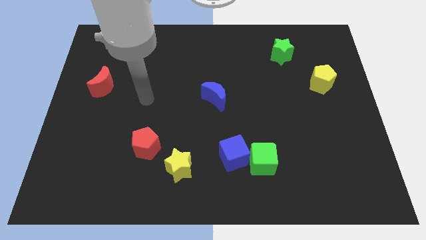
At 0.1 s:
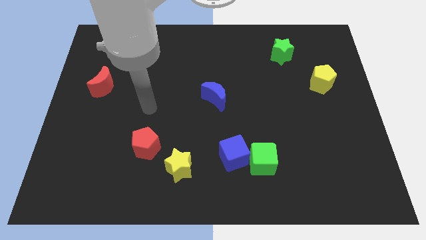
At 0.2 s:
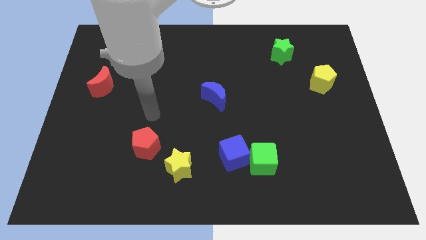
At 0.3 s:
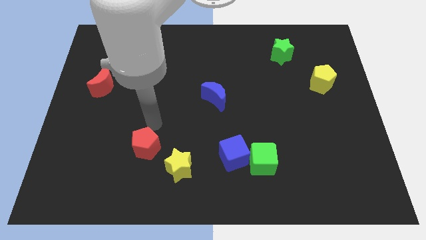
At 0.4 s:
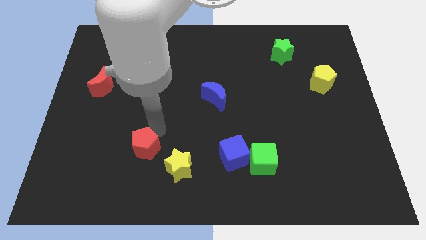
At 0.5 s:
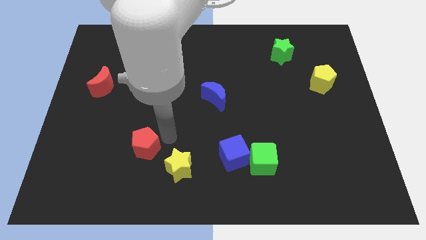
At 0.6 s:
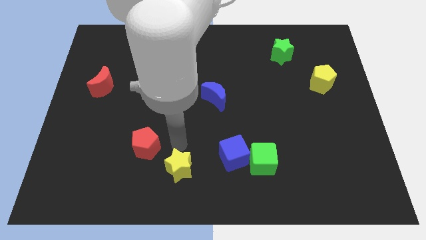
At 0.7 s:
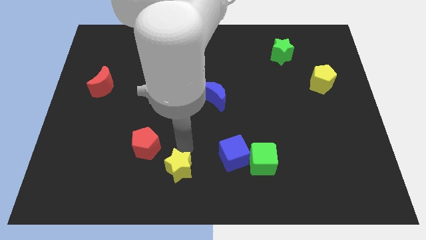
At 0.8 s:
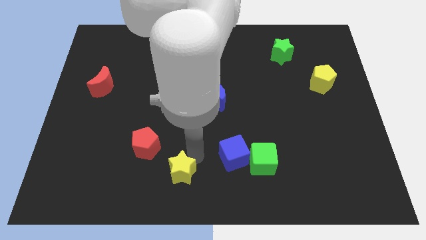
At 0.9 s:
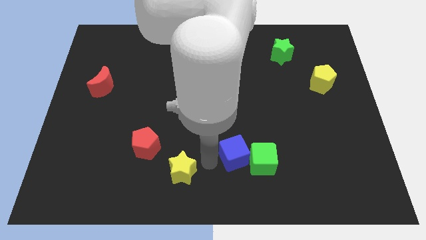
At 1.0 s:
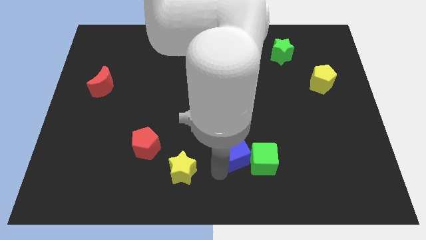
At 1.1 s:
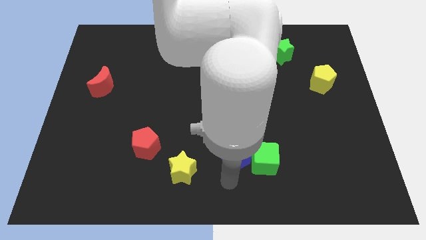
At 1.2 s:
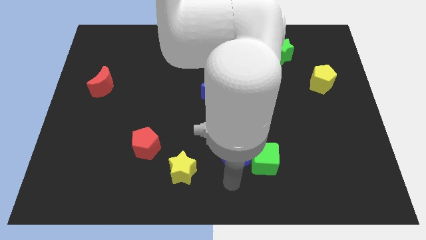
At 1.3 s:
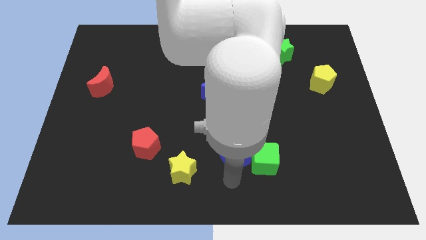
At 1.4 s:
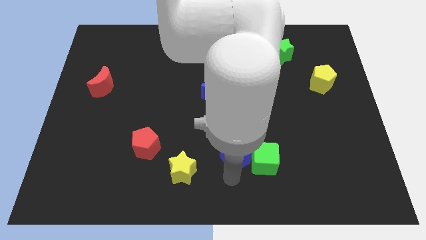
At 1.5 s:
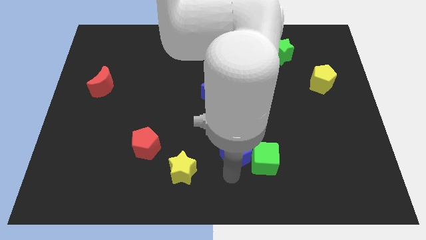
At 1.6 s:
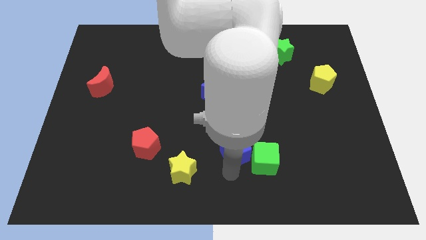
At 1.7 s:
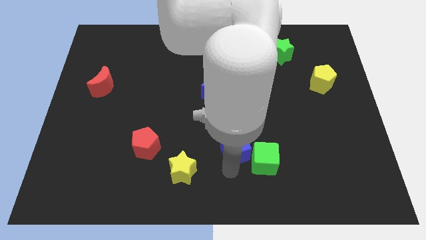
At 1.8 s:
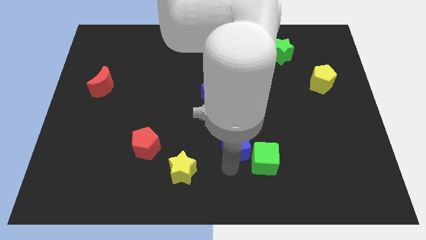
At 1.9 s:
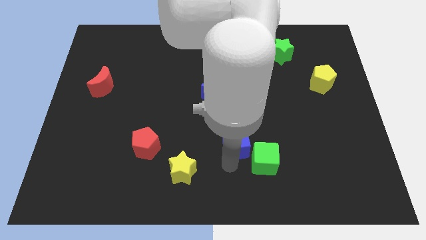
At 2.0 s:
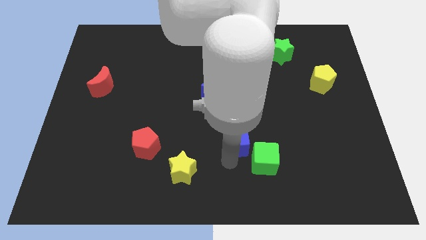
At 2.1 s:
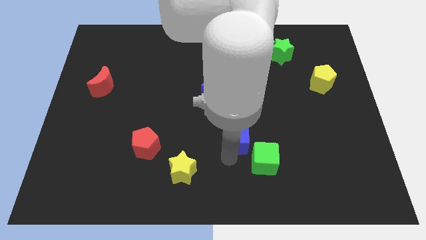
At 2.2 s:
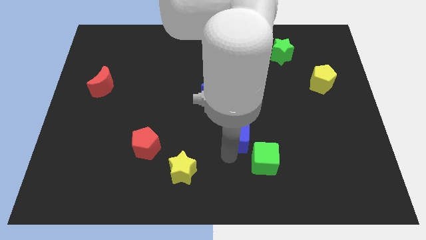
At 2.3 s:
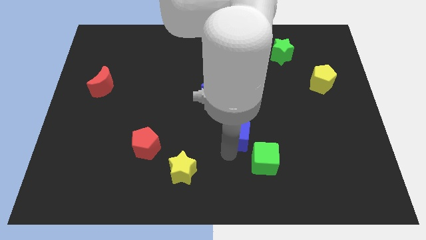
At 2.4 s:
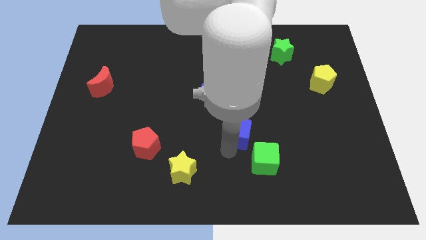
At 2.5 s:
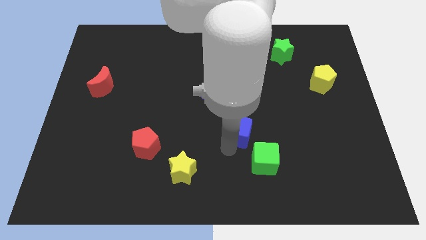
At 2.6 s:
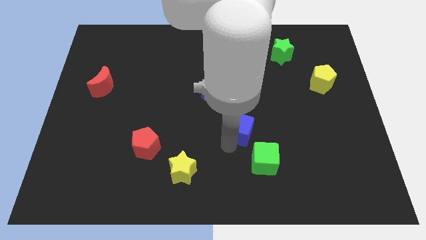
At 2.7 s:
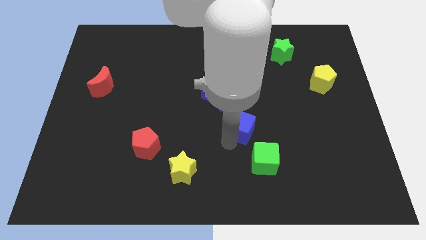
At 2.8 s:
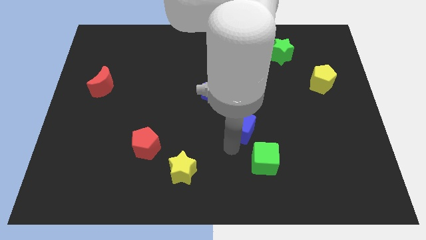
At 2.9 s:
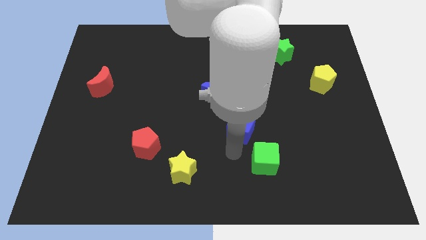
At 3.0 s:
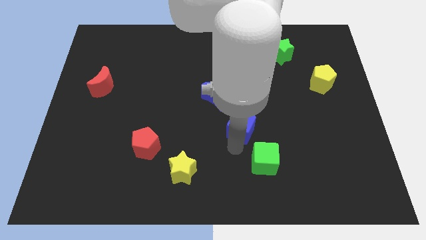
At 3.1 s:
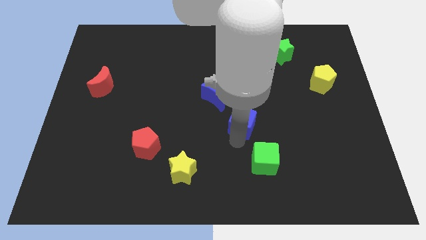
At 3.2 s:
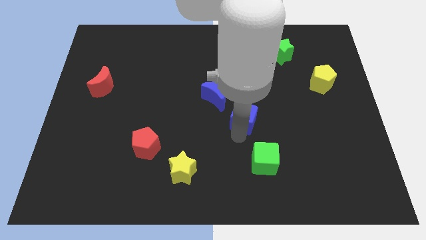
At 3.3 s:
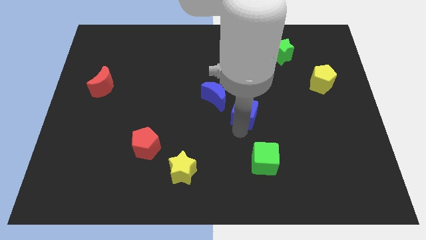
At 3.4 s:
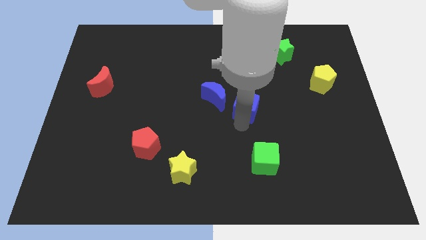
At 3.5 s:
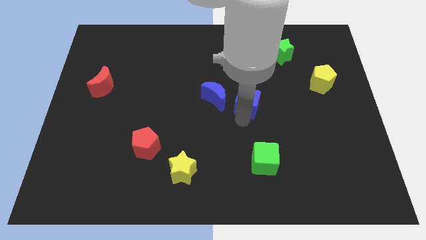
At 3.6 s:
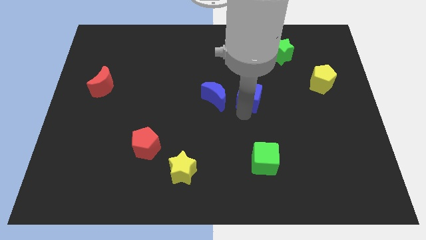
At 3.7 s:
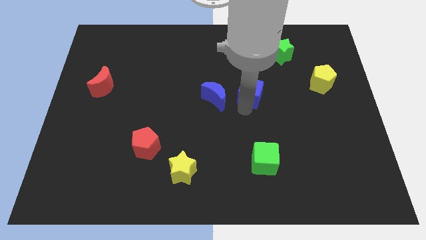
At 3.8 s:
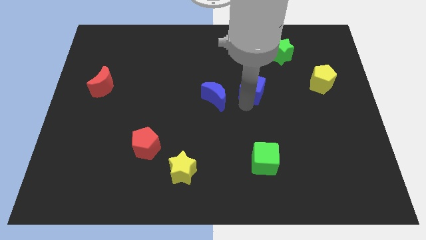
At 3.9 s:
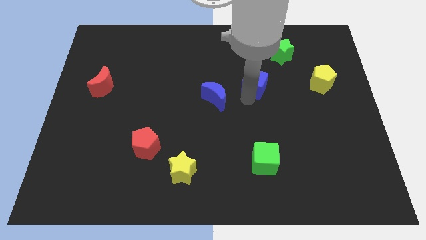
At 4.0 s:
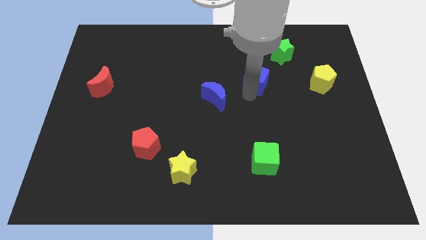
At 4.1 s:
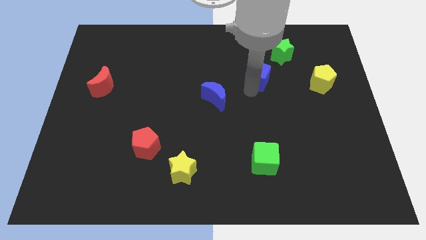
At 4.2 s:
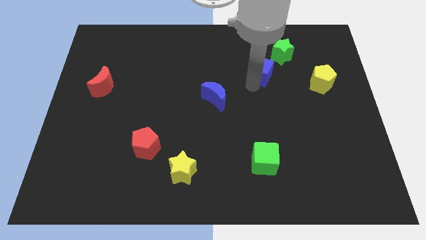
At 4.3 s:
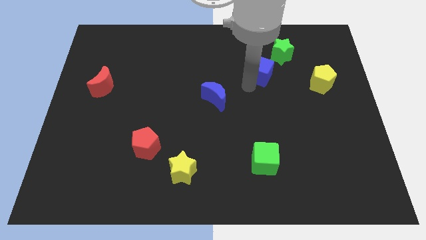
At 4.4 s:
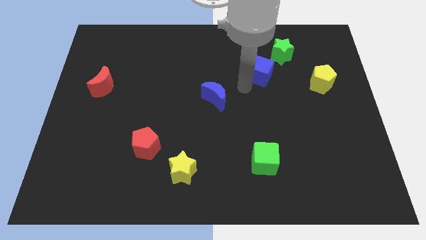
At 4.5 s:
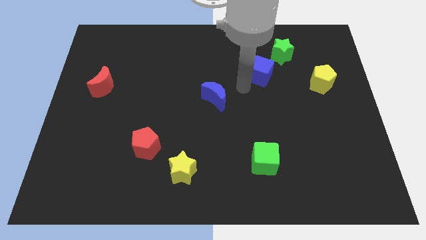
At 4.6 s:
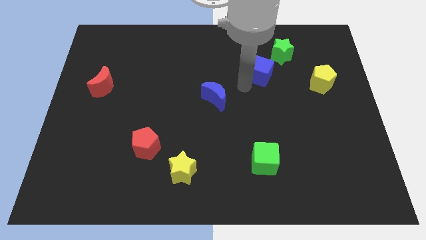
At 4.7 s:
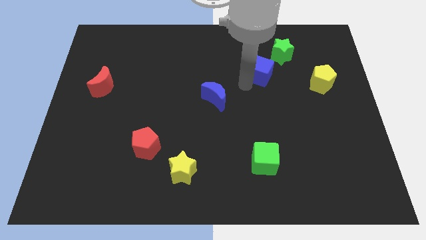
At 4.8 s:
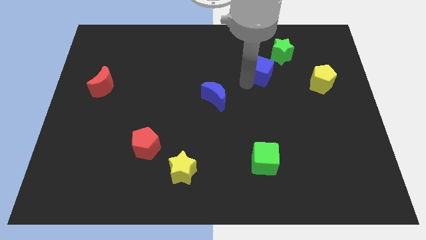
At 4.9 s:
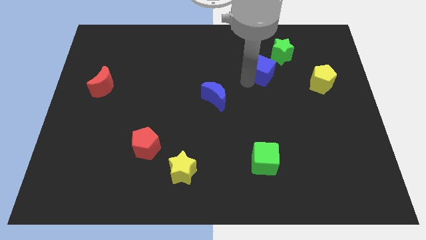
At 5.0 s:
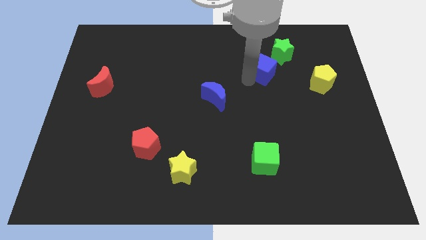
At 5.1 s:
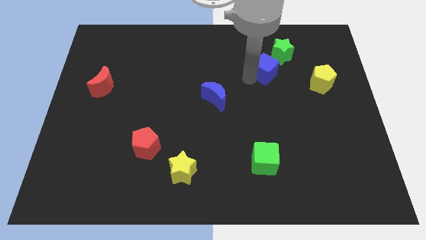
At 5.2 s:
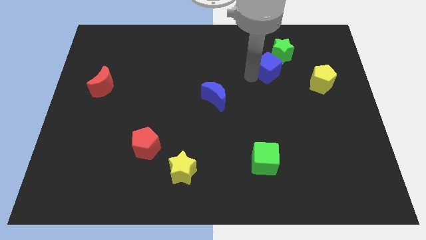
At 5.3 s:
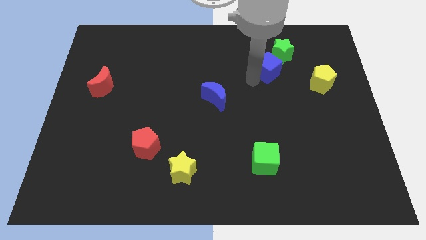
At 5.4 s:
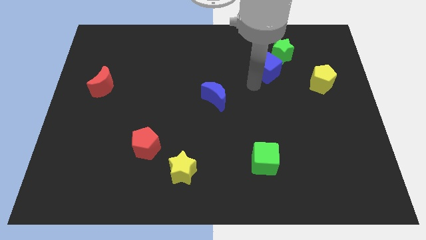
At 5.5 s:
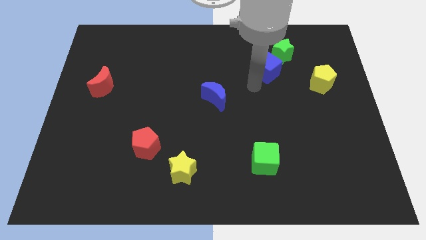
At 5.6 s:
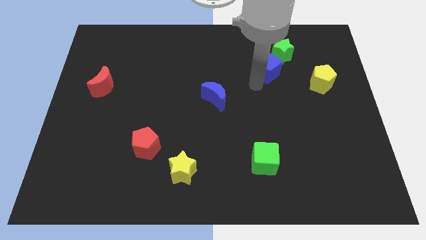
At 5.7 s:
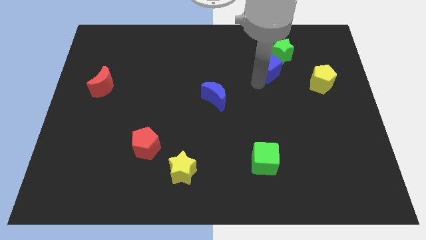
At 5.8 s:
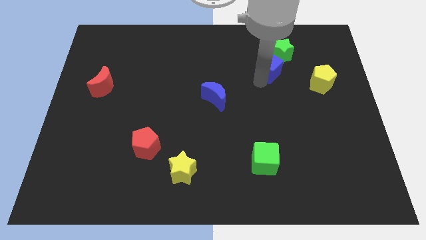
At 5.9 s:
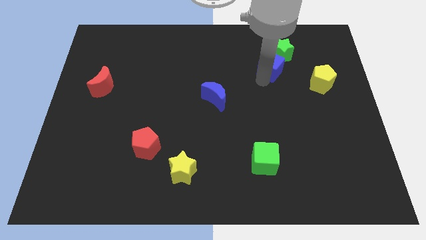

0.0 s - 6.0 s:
move the blue cube to the green star

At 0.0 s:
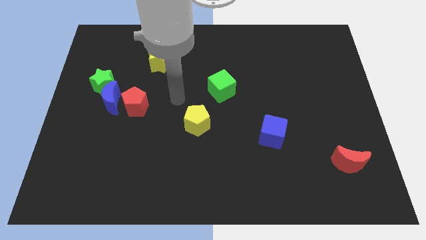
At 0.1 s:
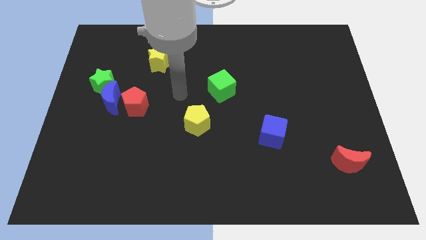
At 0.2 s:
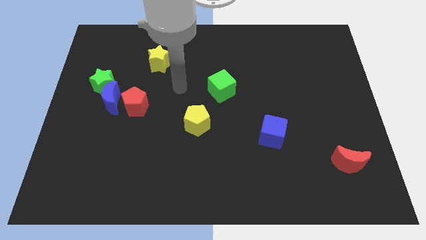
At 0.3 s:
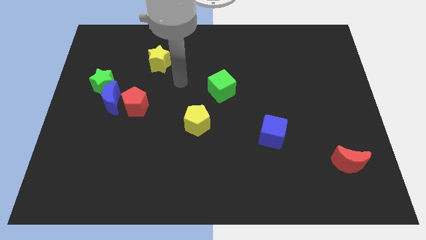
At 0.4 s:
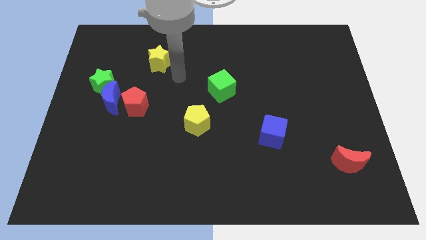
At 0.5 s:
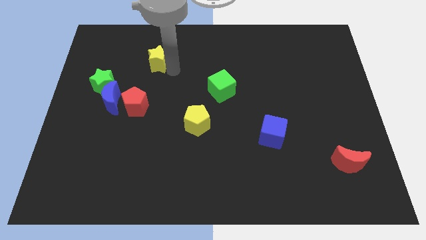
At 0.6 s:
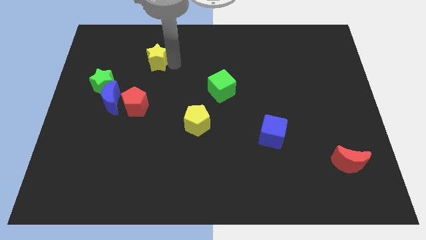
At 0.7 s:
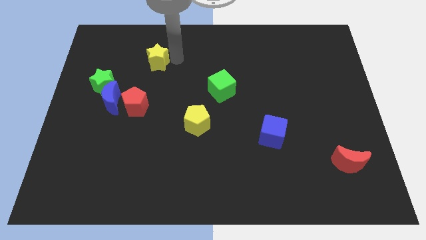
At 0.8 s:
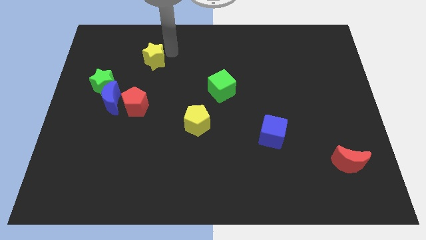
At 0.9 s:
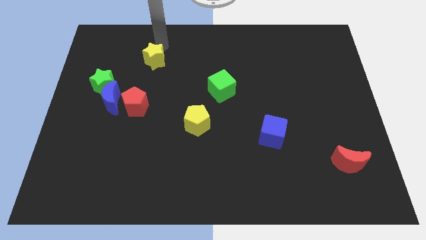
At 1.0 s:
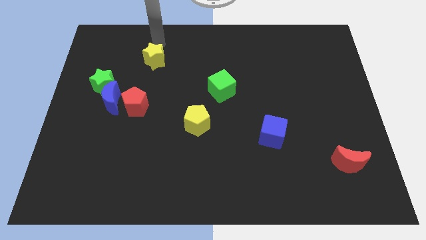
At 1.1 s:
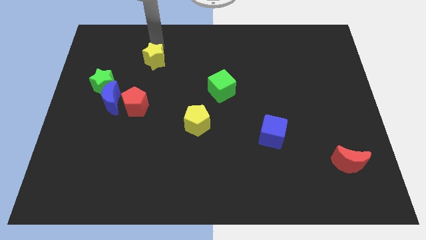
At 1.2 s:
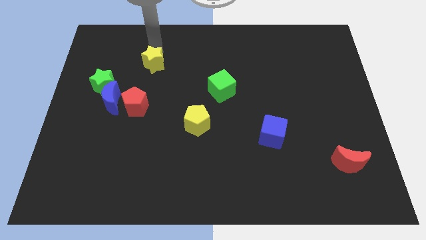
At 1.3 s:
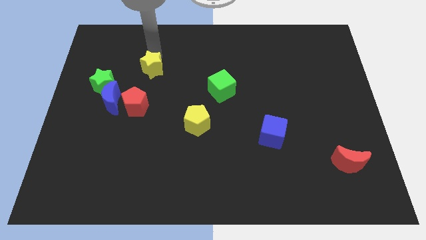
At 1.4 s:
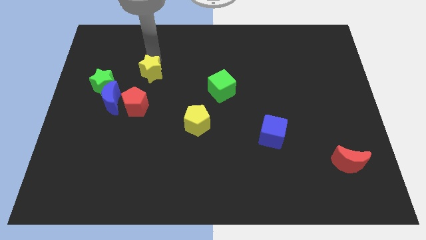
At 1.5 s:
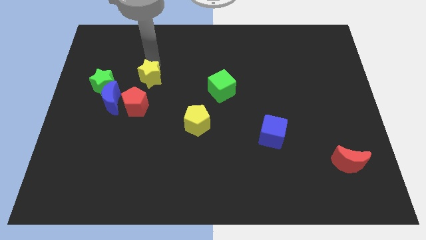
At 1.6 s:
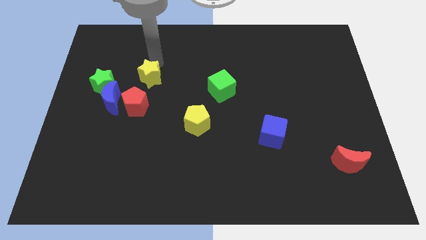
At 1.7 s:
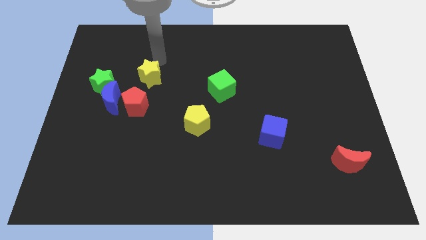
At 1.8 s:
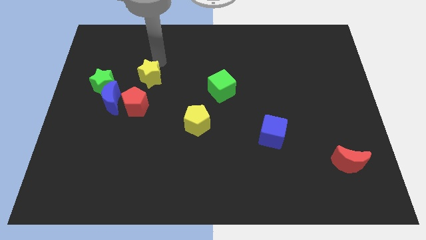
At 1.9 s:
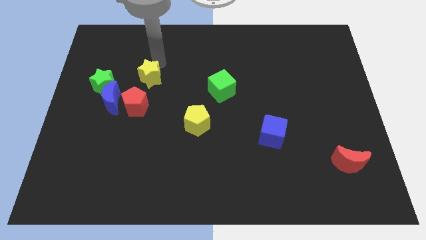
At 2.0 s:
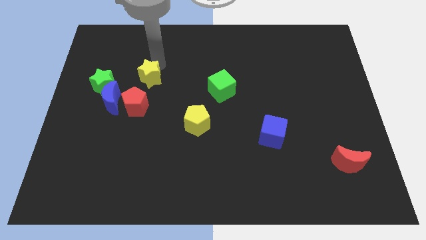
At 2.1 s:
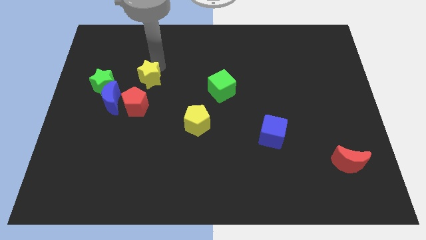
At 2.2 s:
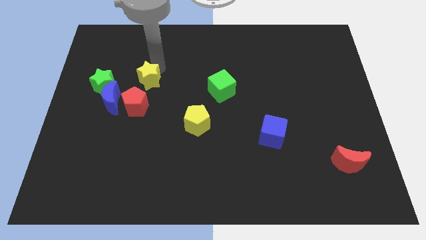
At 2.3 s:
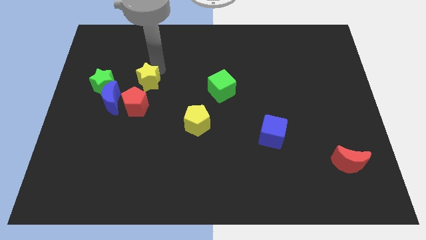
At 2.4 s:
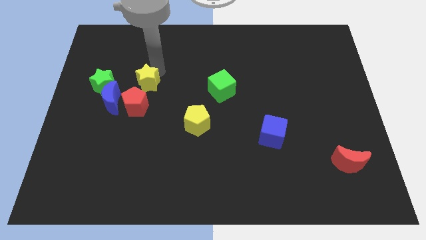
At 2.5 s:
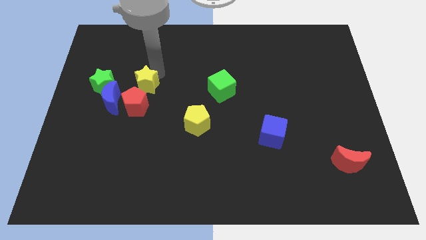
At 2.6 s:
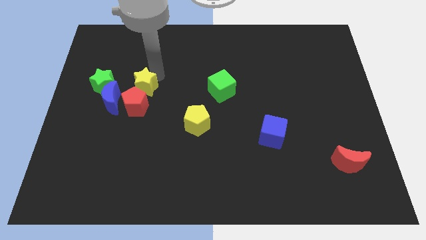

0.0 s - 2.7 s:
put the yellow star to the red pentagon
